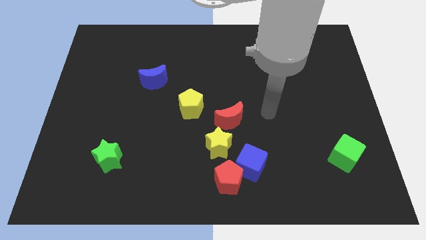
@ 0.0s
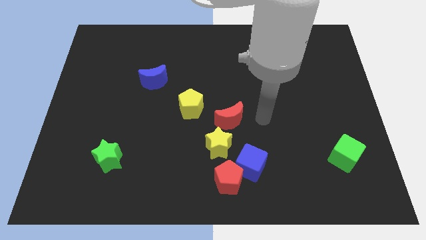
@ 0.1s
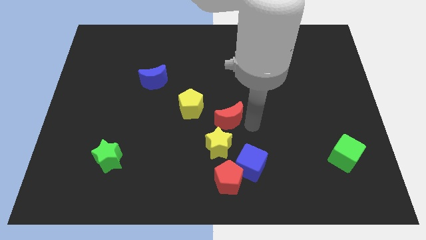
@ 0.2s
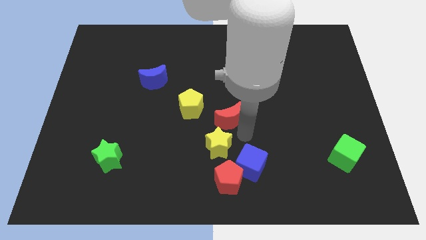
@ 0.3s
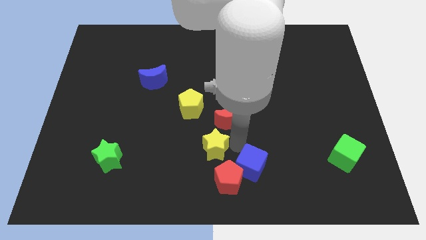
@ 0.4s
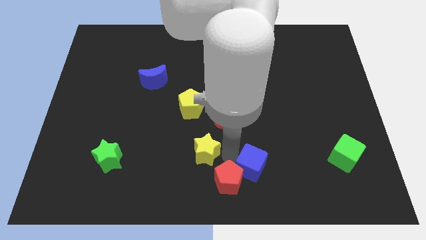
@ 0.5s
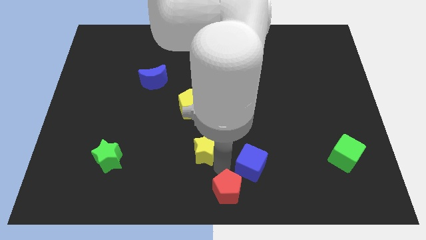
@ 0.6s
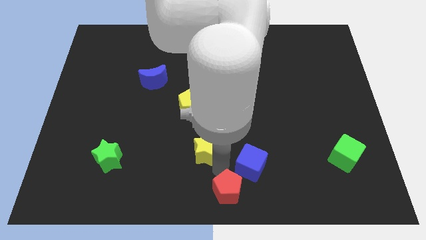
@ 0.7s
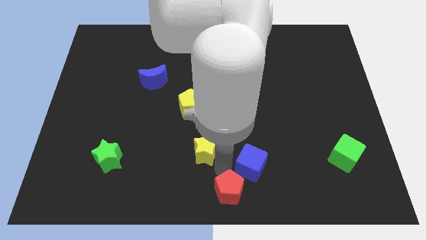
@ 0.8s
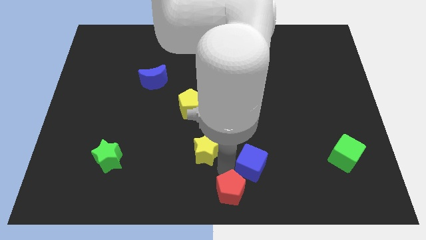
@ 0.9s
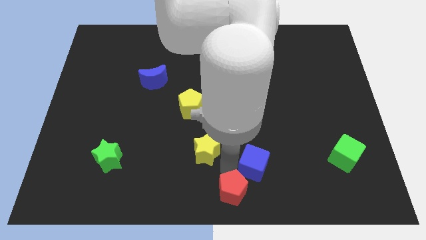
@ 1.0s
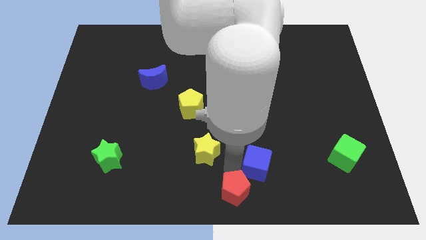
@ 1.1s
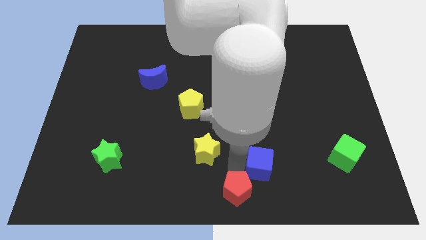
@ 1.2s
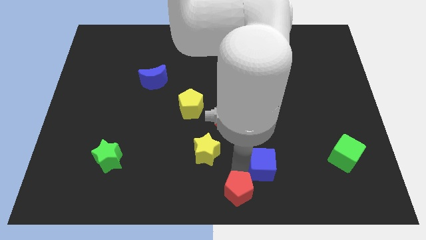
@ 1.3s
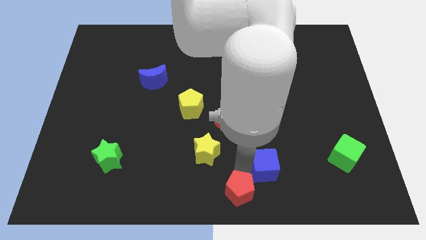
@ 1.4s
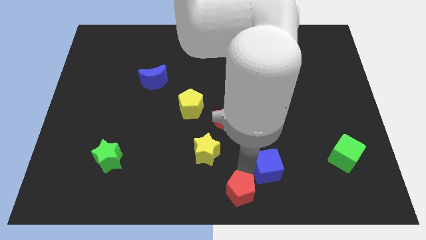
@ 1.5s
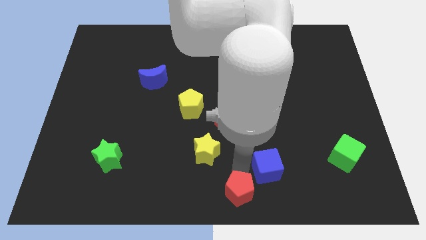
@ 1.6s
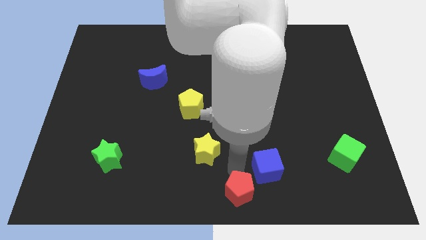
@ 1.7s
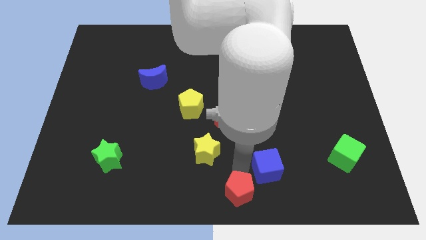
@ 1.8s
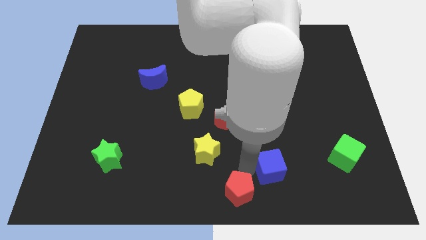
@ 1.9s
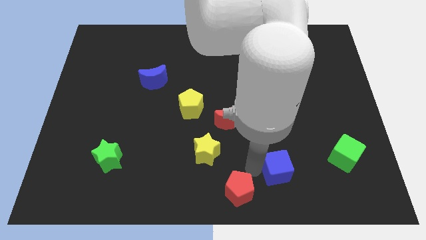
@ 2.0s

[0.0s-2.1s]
separate the blue cube from the red pentagon and yellow star

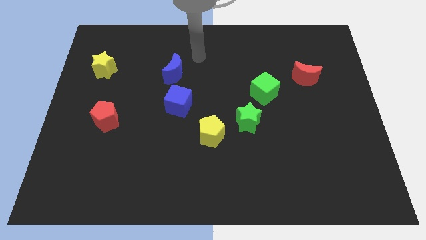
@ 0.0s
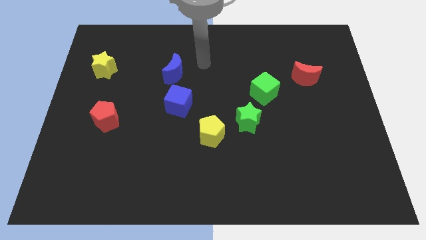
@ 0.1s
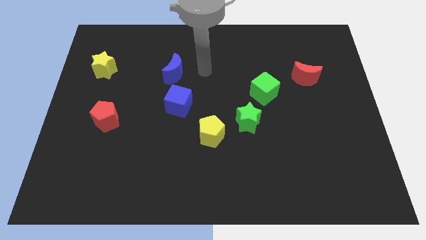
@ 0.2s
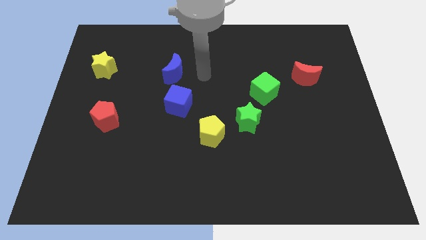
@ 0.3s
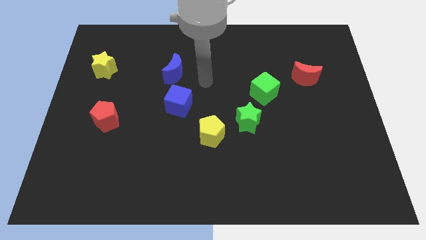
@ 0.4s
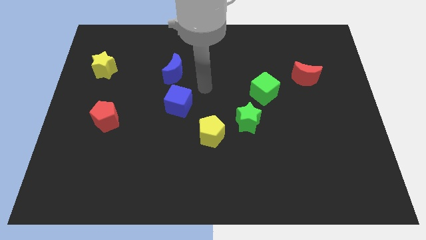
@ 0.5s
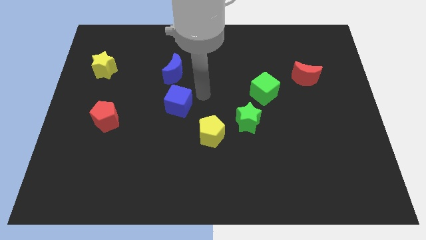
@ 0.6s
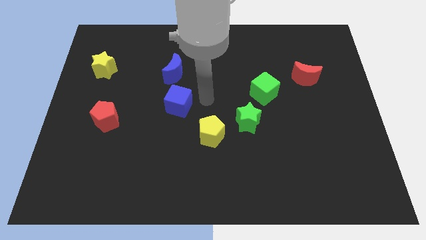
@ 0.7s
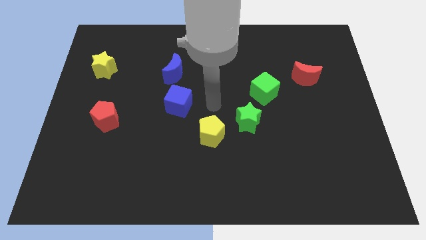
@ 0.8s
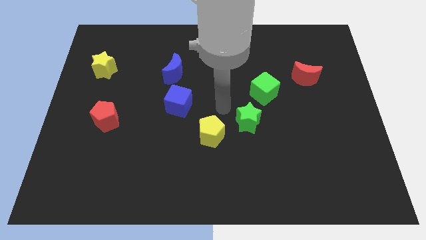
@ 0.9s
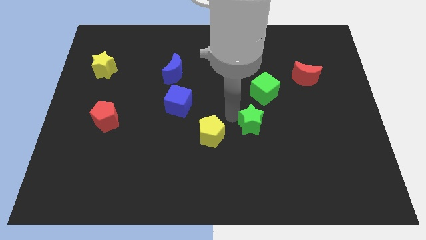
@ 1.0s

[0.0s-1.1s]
move the yellow pentagon away from the green star

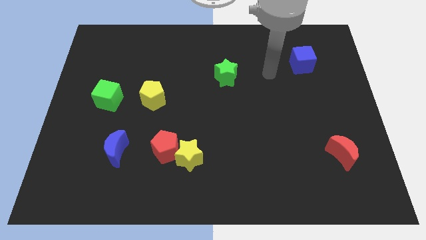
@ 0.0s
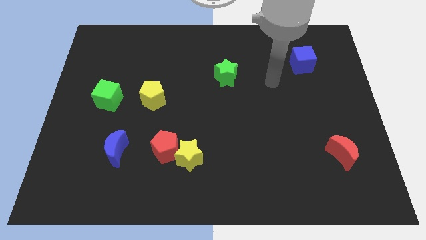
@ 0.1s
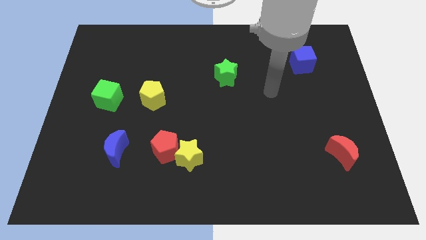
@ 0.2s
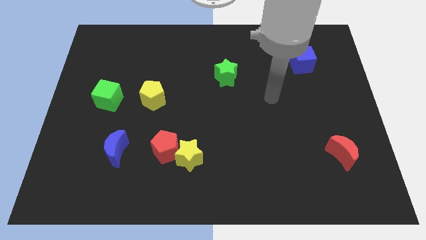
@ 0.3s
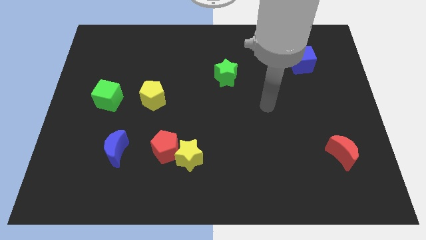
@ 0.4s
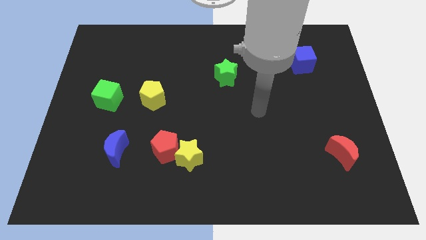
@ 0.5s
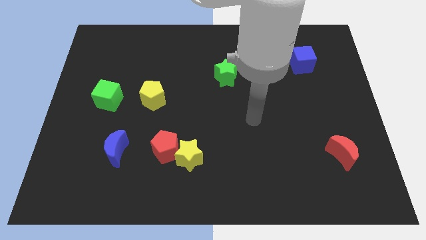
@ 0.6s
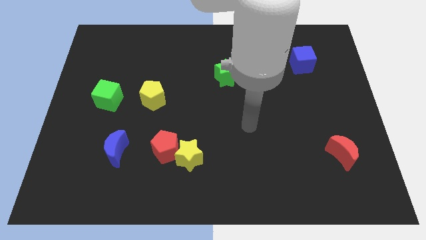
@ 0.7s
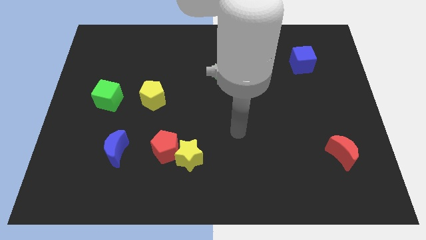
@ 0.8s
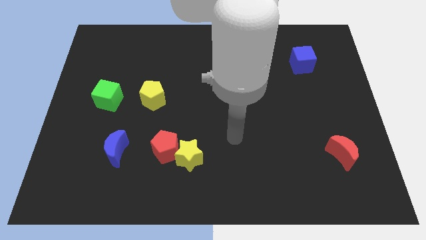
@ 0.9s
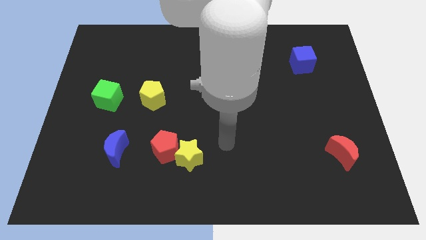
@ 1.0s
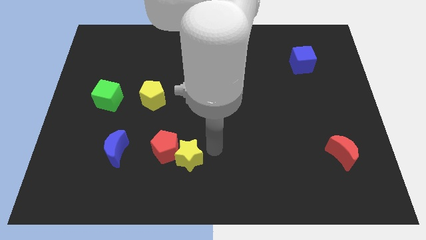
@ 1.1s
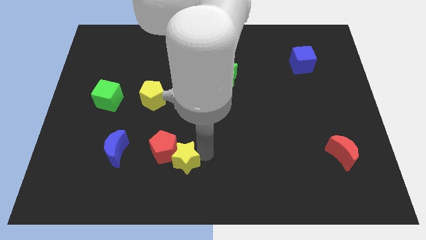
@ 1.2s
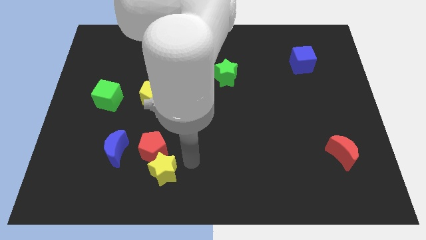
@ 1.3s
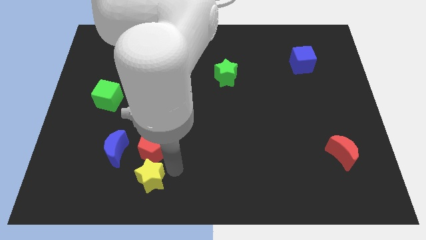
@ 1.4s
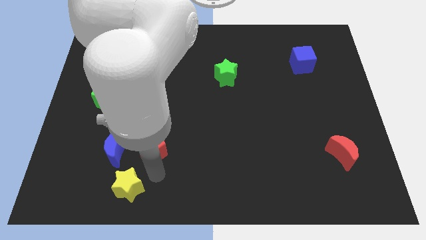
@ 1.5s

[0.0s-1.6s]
move the red pentagon away from the yellow star

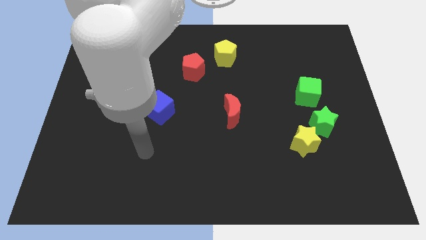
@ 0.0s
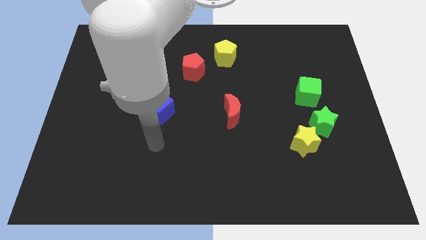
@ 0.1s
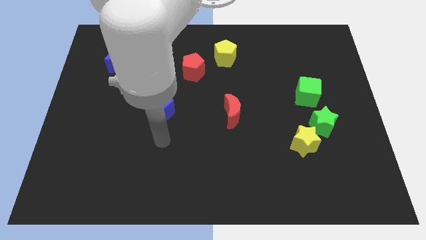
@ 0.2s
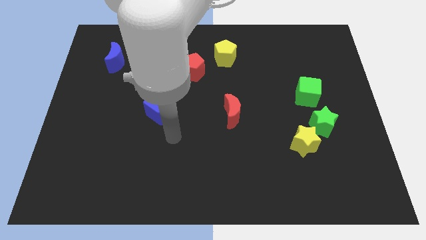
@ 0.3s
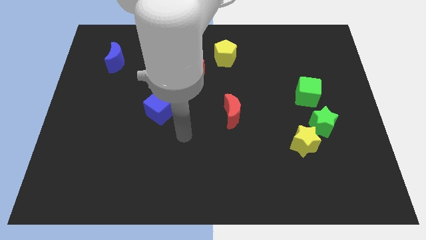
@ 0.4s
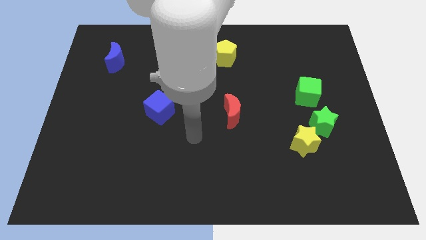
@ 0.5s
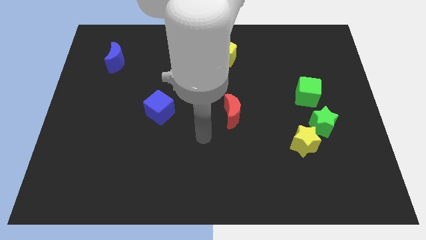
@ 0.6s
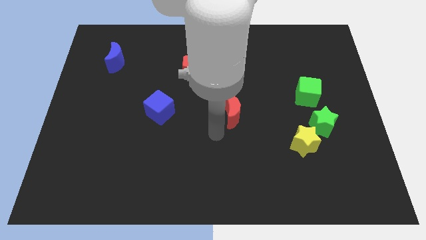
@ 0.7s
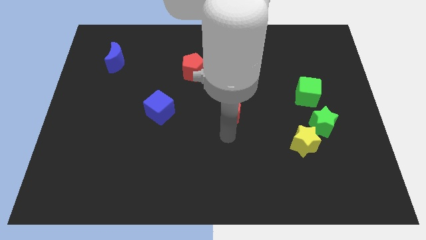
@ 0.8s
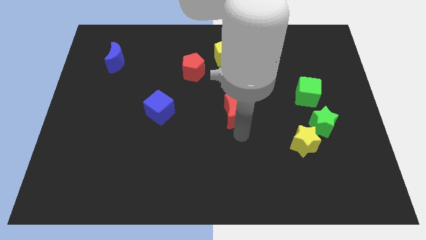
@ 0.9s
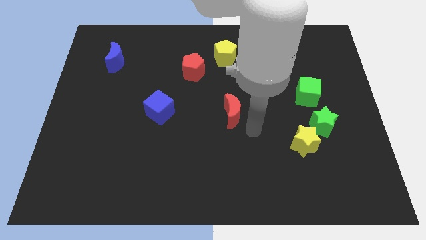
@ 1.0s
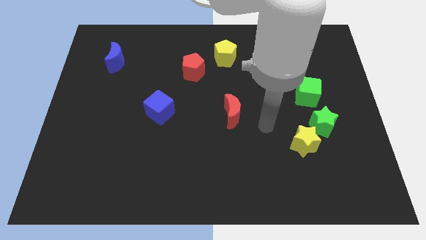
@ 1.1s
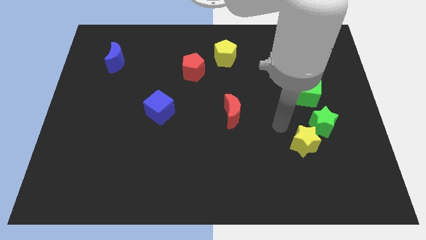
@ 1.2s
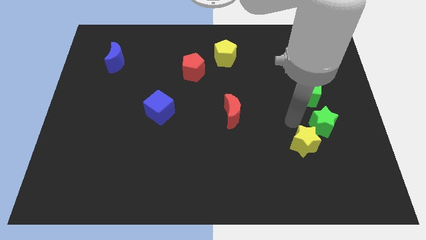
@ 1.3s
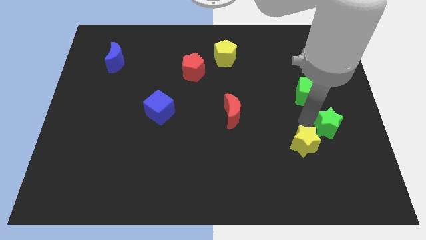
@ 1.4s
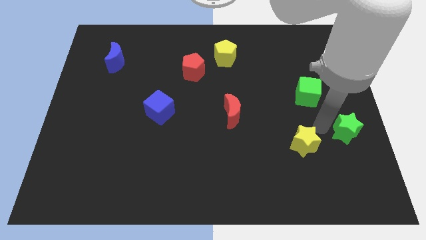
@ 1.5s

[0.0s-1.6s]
move the yellow star away from the green star

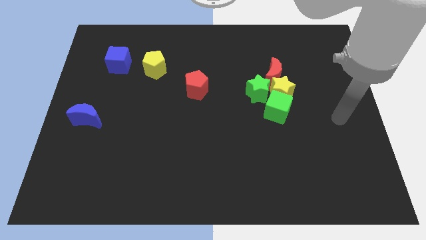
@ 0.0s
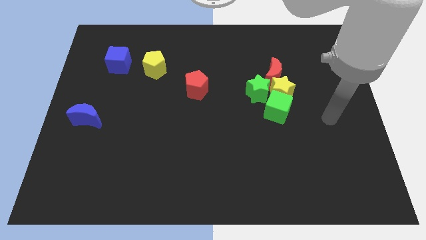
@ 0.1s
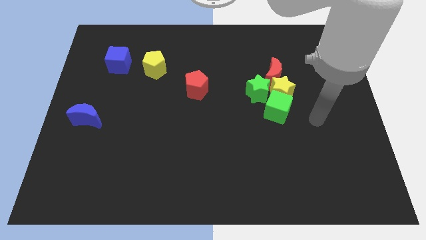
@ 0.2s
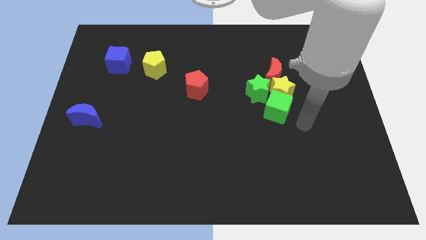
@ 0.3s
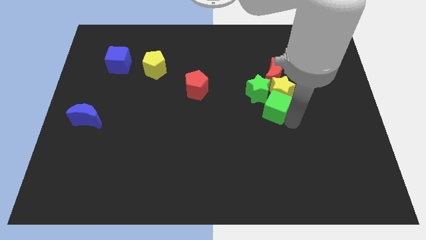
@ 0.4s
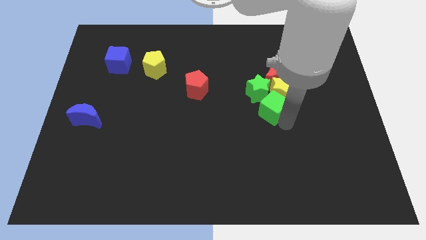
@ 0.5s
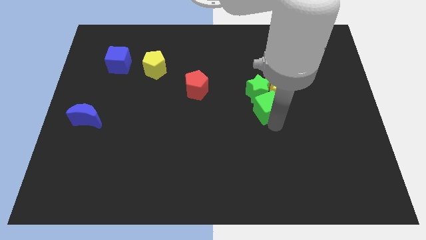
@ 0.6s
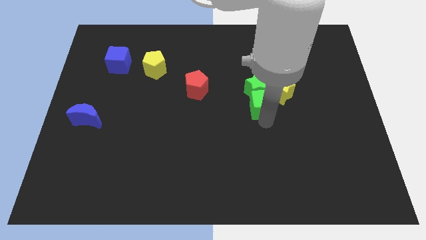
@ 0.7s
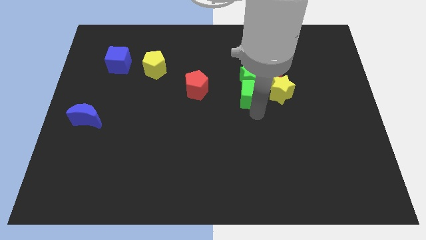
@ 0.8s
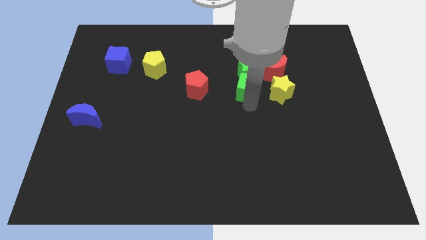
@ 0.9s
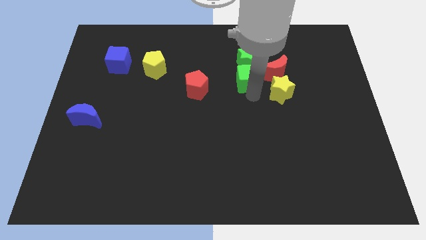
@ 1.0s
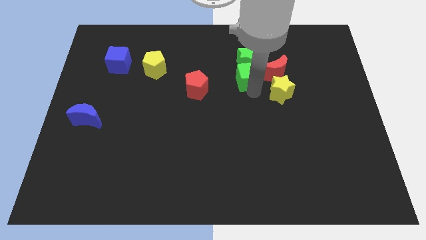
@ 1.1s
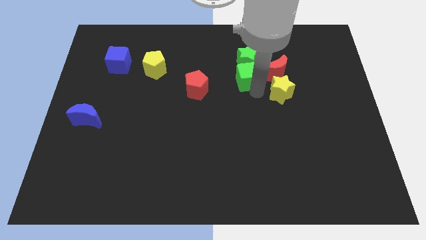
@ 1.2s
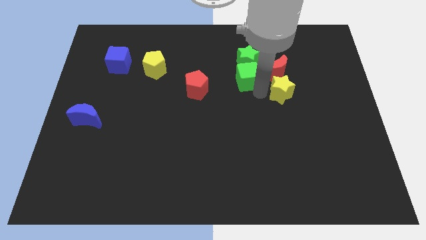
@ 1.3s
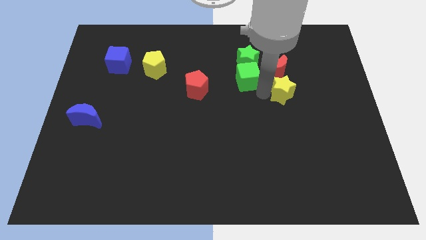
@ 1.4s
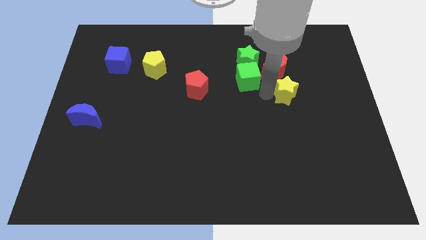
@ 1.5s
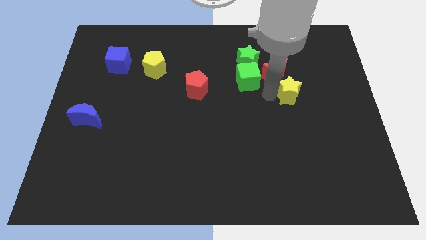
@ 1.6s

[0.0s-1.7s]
separate the yellow star from the group

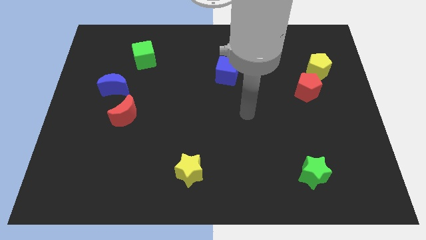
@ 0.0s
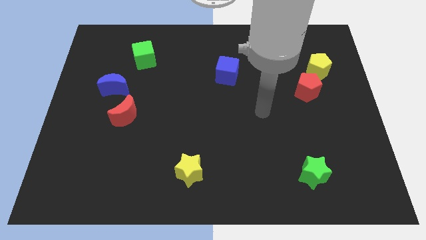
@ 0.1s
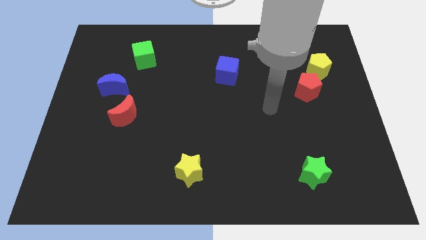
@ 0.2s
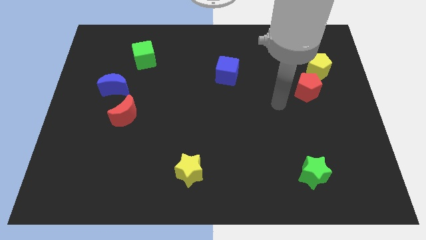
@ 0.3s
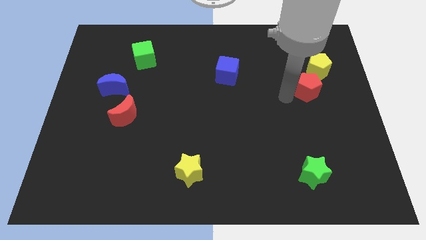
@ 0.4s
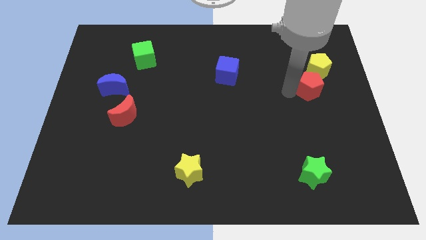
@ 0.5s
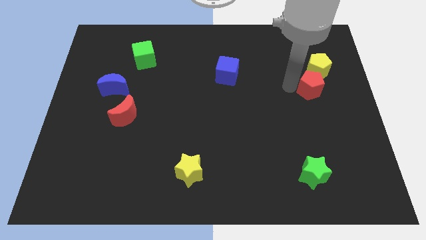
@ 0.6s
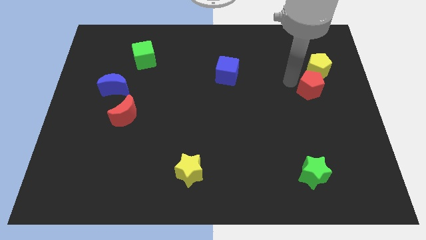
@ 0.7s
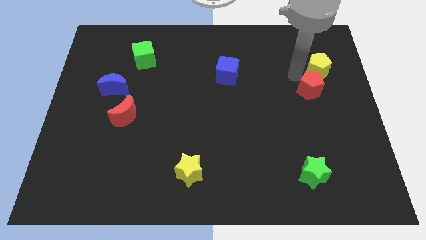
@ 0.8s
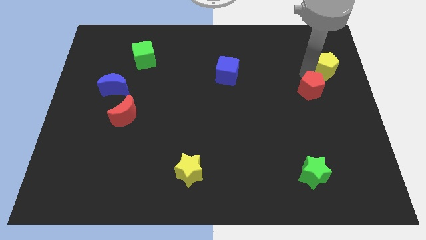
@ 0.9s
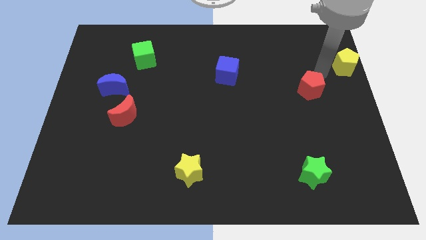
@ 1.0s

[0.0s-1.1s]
move the red pentagon away from the yellow pentagon
